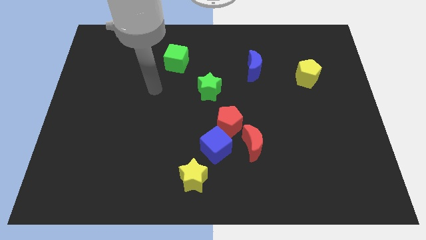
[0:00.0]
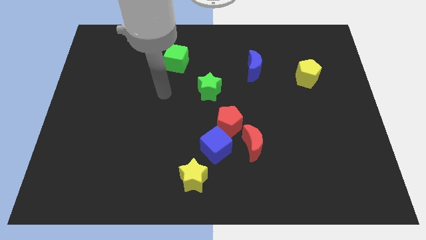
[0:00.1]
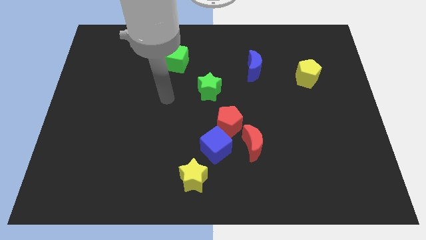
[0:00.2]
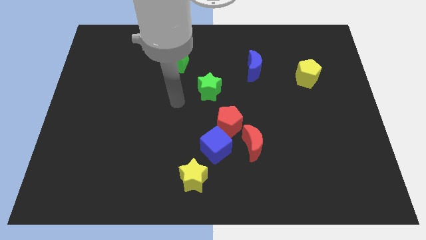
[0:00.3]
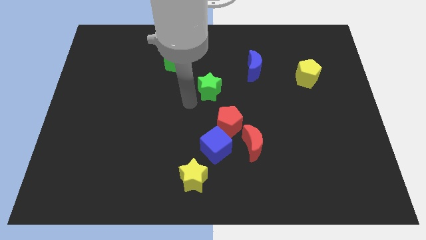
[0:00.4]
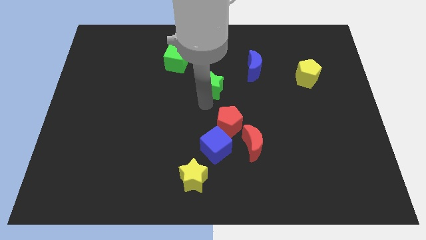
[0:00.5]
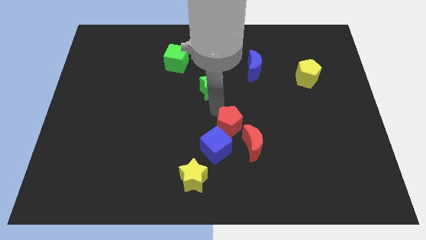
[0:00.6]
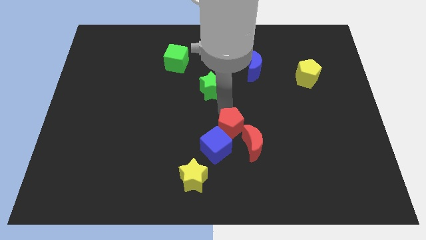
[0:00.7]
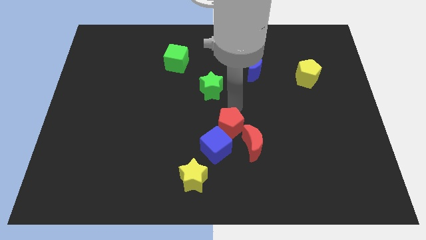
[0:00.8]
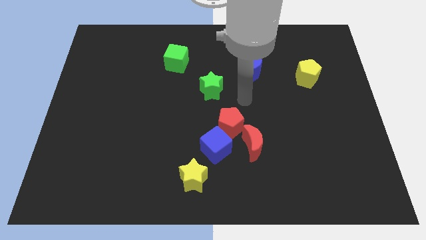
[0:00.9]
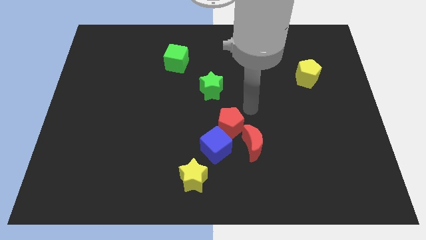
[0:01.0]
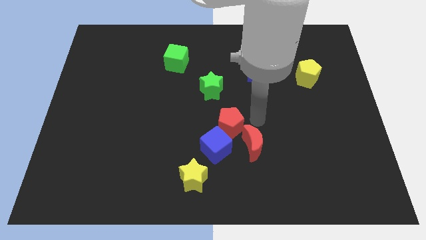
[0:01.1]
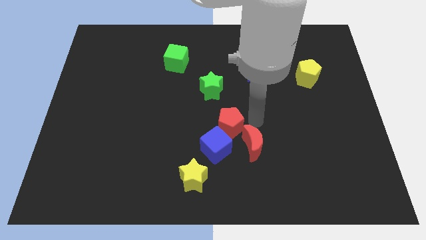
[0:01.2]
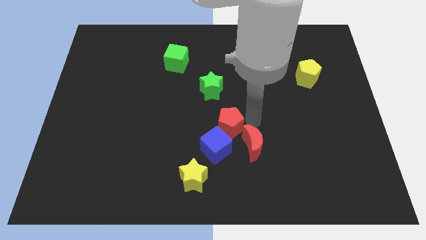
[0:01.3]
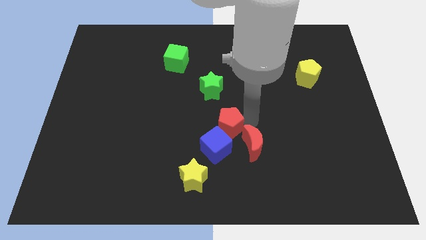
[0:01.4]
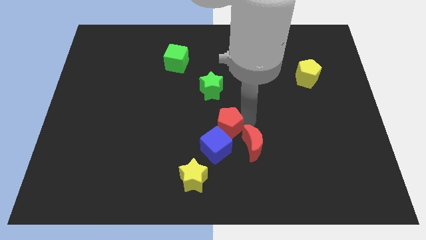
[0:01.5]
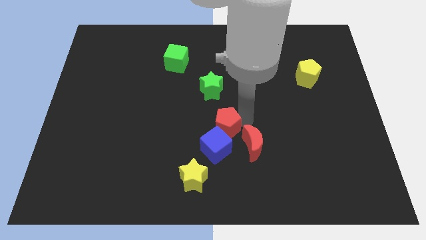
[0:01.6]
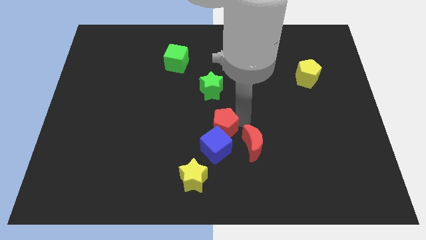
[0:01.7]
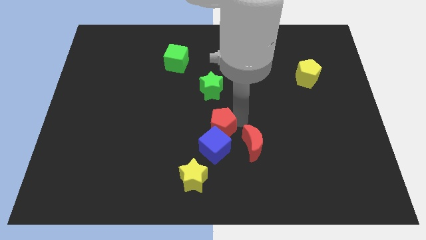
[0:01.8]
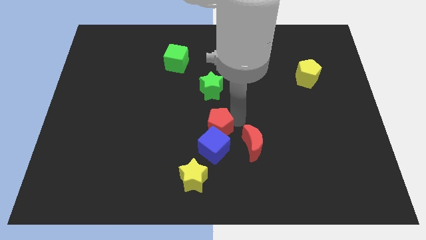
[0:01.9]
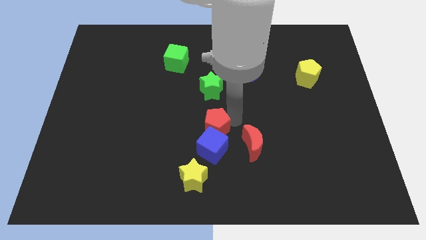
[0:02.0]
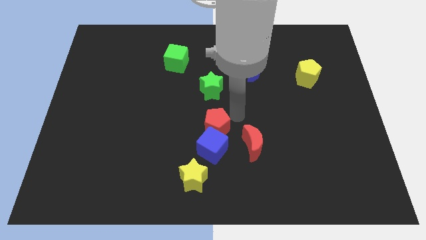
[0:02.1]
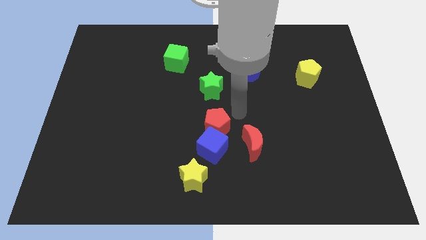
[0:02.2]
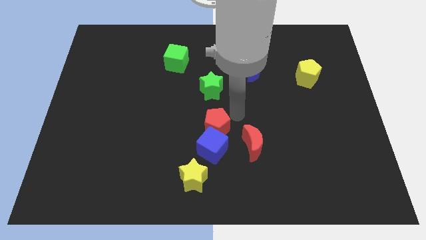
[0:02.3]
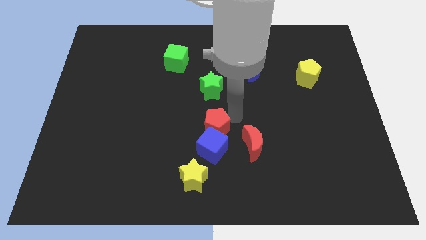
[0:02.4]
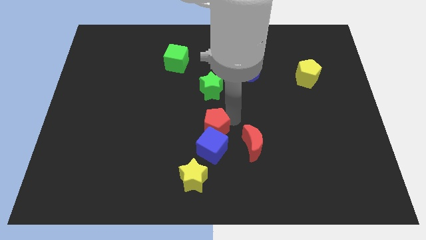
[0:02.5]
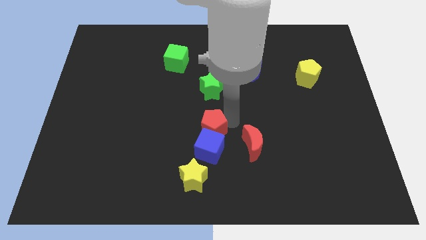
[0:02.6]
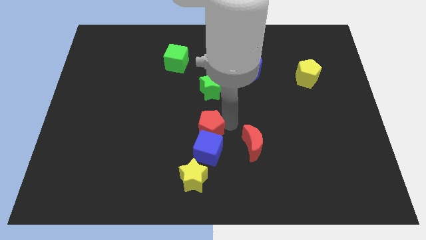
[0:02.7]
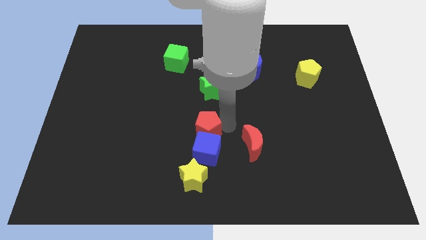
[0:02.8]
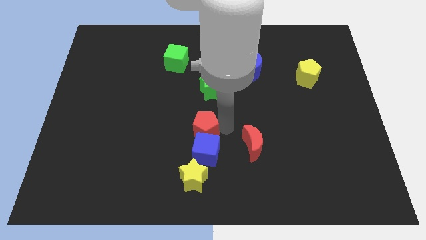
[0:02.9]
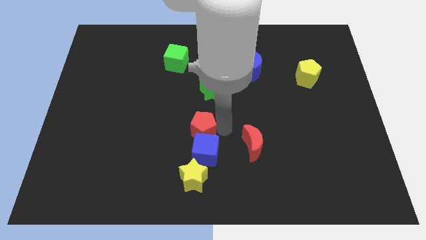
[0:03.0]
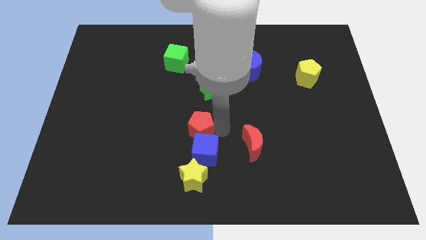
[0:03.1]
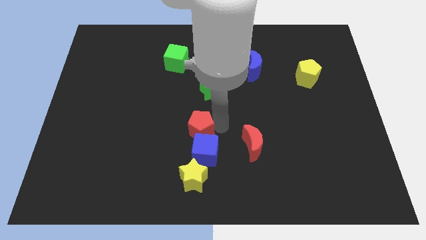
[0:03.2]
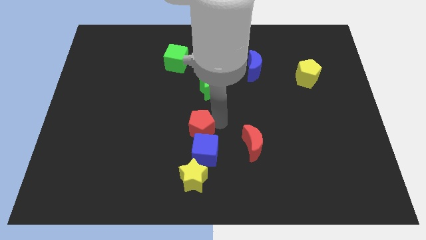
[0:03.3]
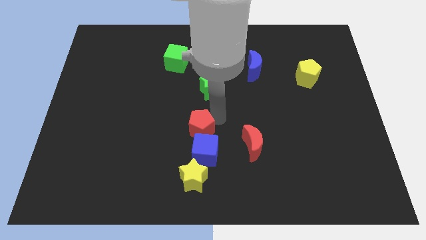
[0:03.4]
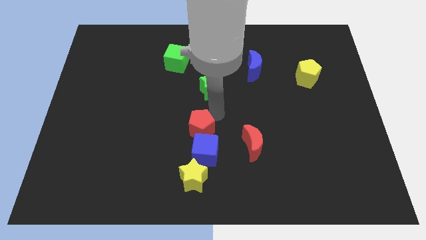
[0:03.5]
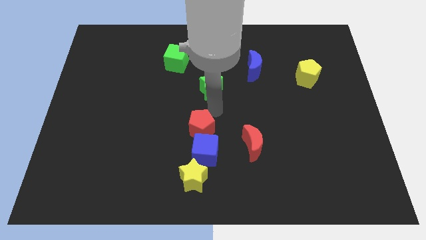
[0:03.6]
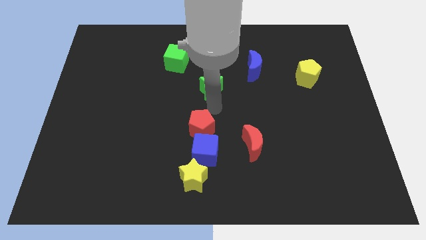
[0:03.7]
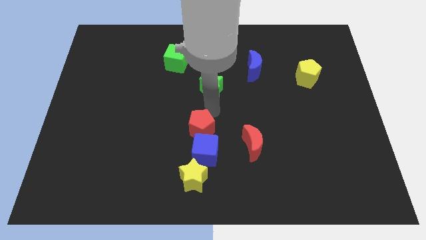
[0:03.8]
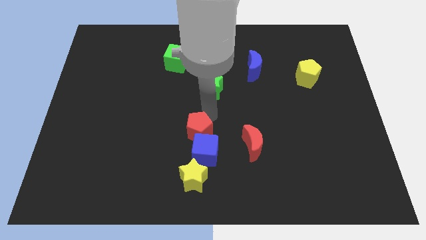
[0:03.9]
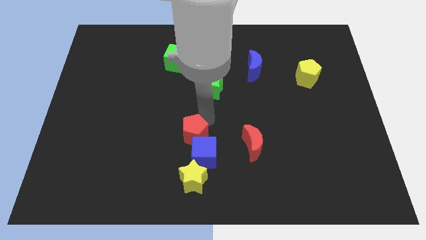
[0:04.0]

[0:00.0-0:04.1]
slightly slide the red pentagon downwards and then left

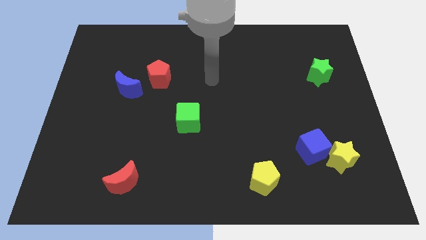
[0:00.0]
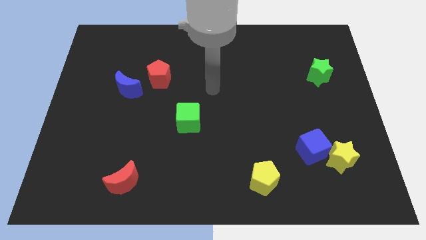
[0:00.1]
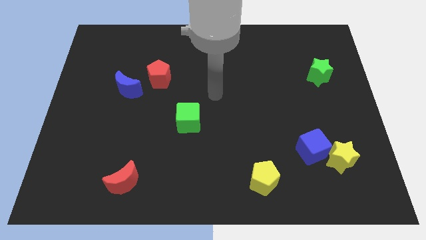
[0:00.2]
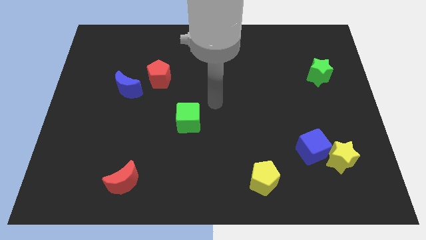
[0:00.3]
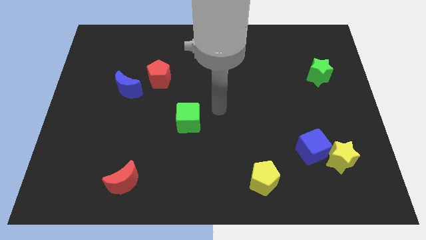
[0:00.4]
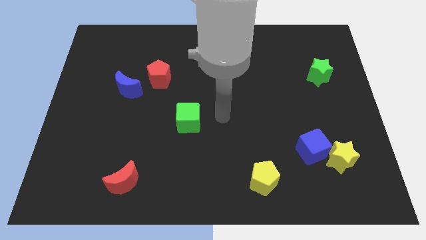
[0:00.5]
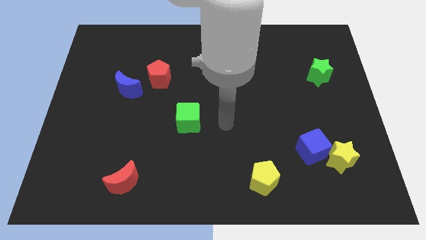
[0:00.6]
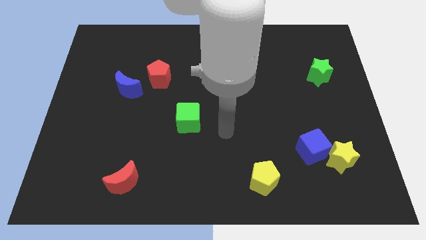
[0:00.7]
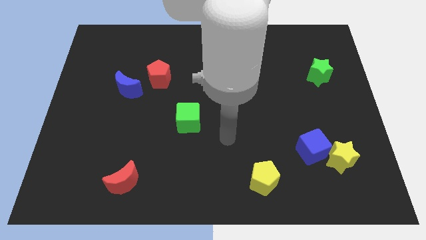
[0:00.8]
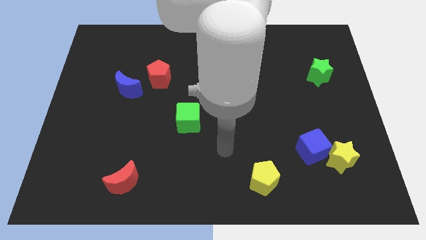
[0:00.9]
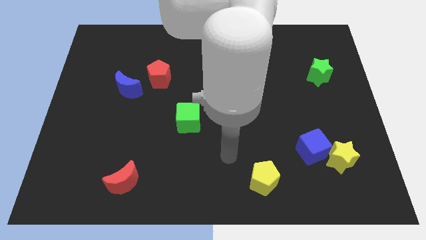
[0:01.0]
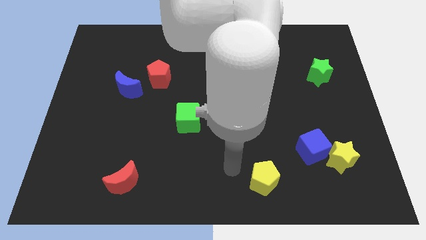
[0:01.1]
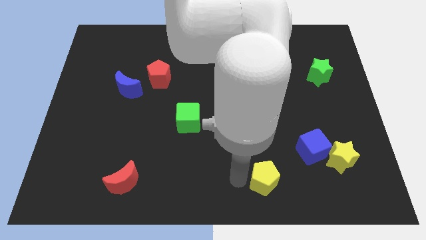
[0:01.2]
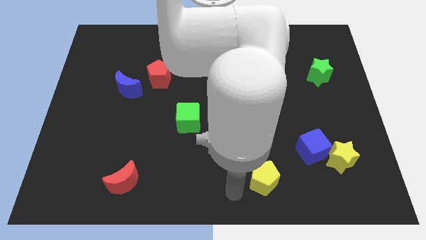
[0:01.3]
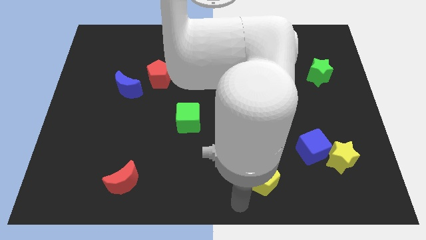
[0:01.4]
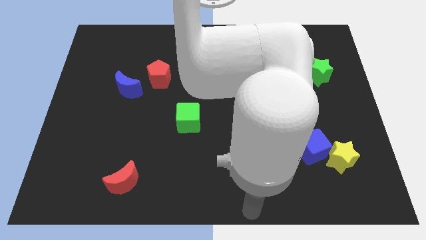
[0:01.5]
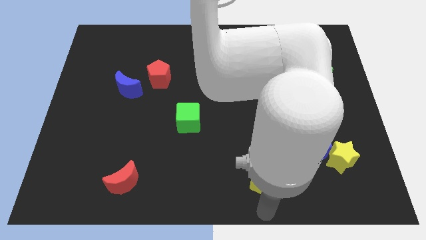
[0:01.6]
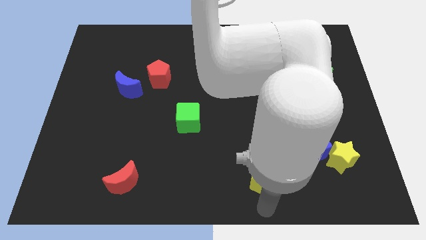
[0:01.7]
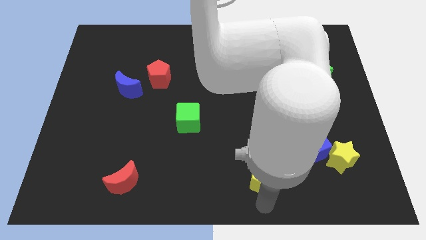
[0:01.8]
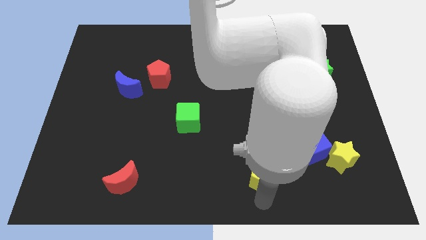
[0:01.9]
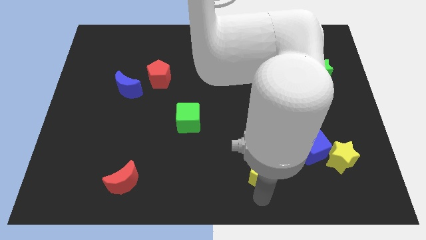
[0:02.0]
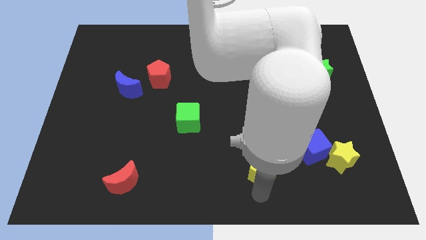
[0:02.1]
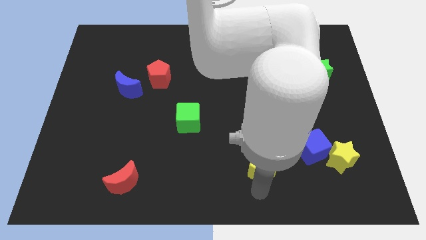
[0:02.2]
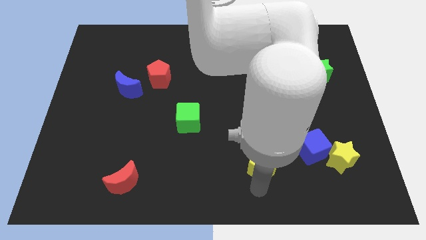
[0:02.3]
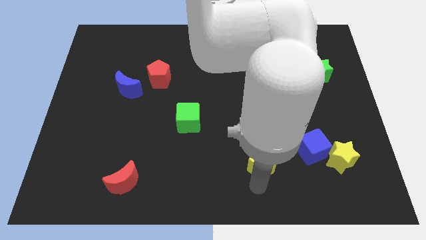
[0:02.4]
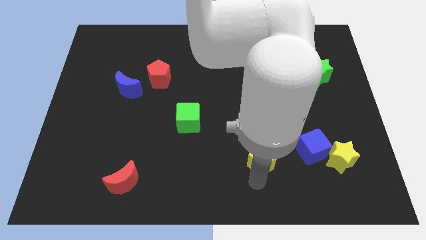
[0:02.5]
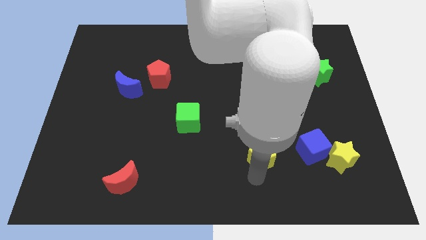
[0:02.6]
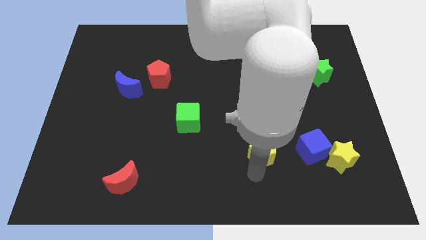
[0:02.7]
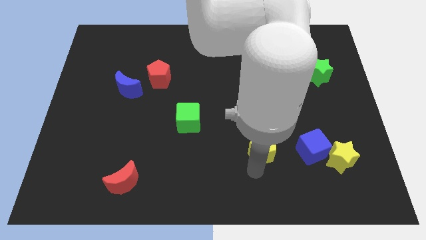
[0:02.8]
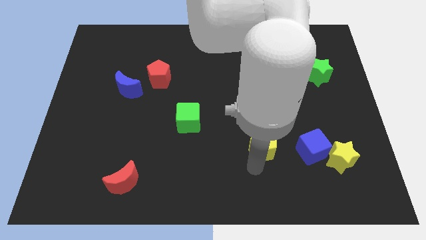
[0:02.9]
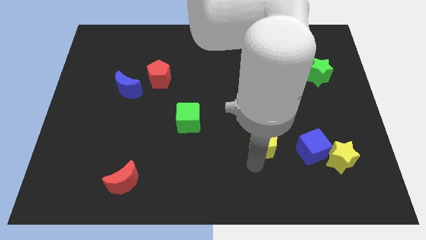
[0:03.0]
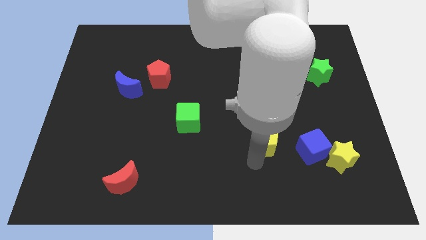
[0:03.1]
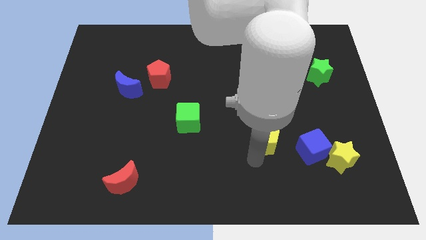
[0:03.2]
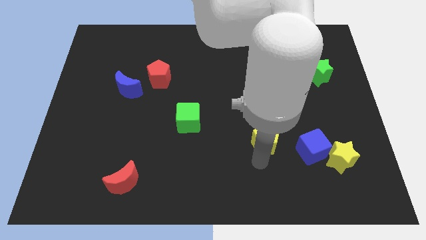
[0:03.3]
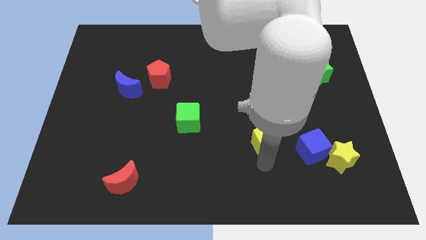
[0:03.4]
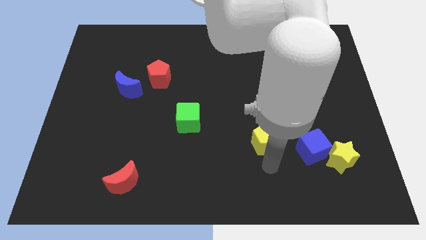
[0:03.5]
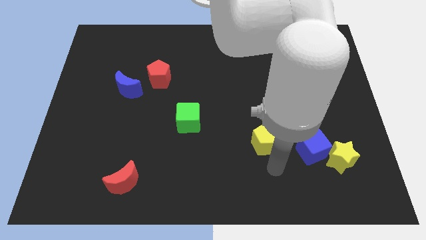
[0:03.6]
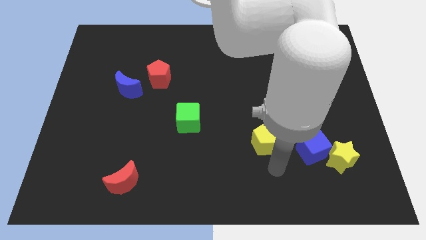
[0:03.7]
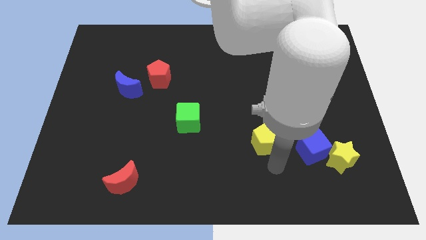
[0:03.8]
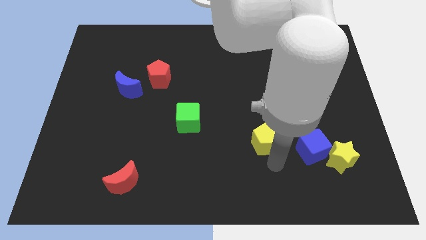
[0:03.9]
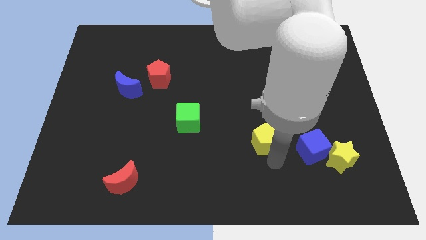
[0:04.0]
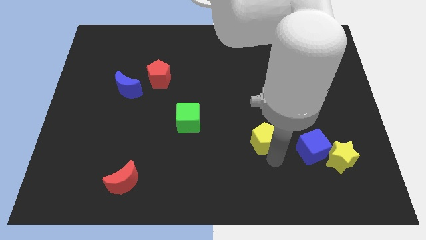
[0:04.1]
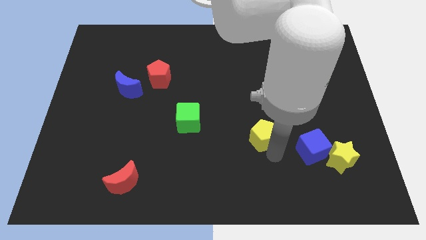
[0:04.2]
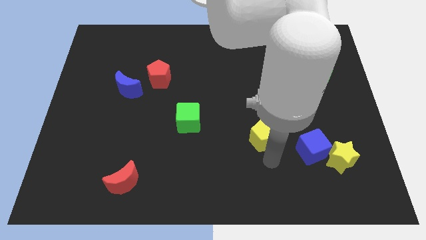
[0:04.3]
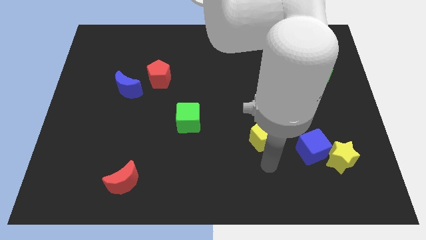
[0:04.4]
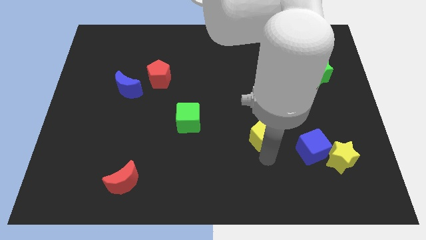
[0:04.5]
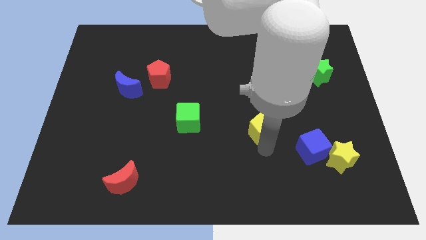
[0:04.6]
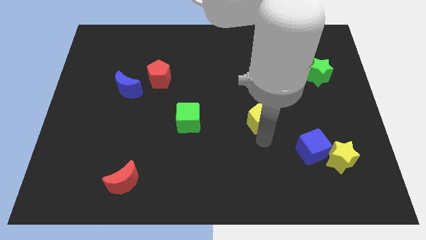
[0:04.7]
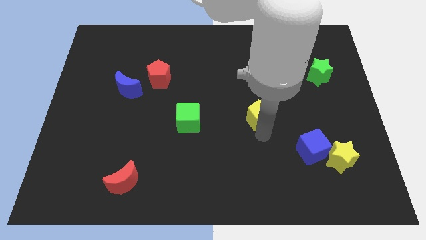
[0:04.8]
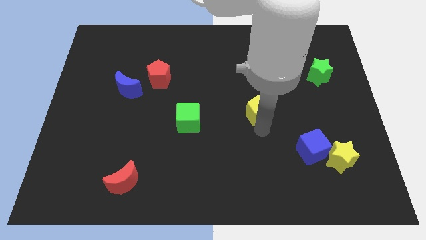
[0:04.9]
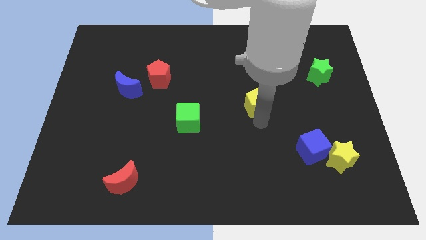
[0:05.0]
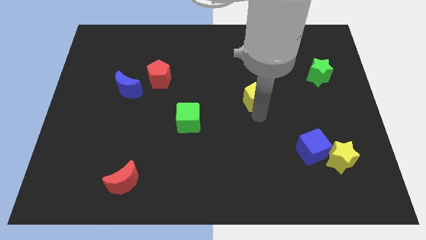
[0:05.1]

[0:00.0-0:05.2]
move the yellow pentagon upwards
